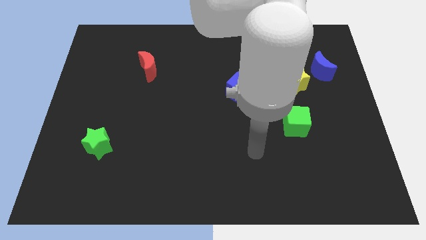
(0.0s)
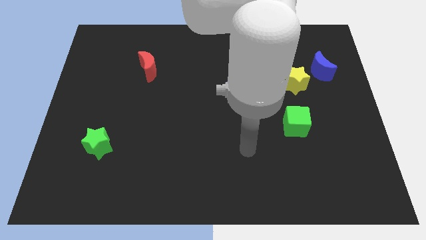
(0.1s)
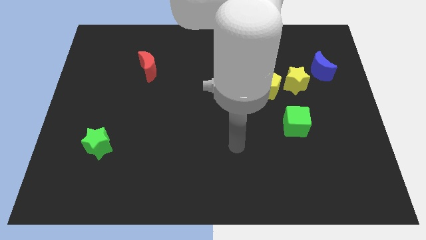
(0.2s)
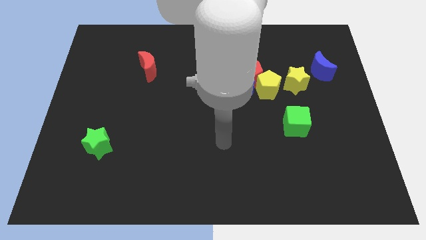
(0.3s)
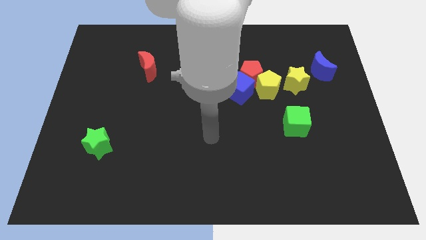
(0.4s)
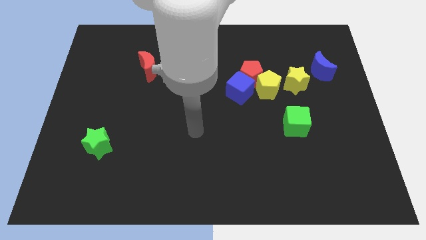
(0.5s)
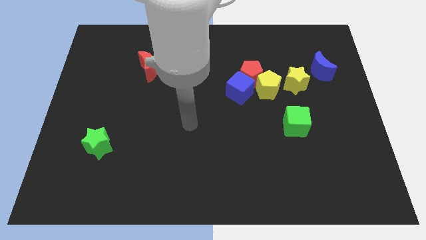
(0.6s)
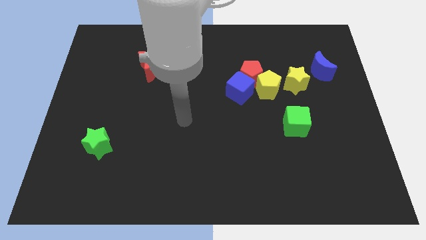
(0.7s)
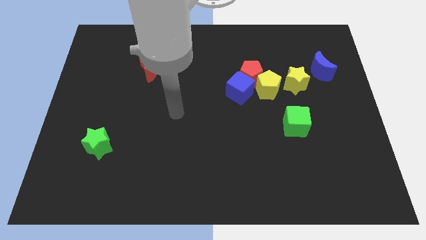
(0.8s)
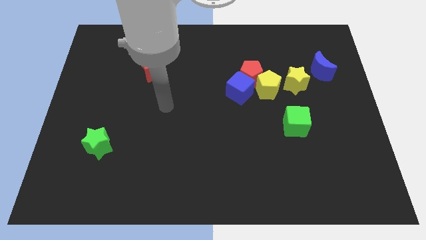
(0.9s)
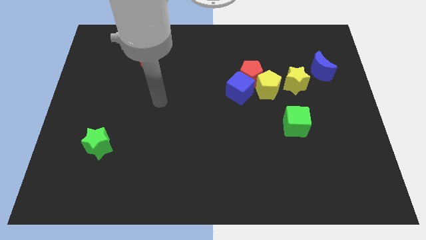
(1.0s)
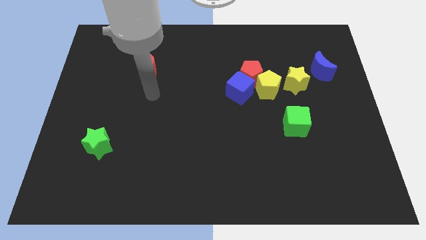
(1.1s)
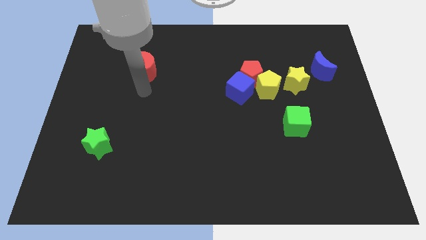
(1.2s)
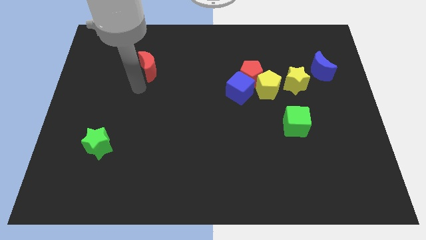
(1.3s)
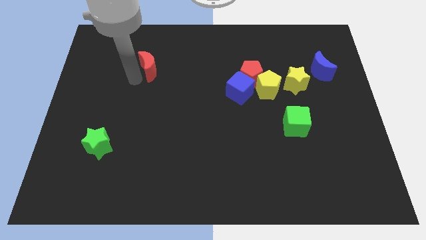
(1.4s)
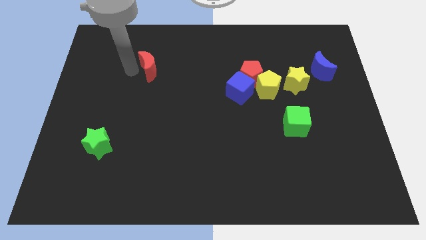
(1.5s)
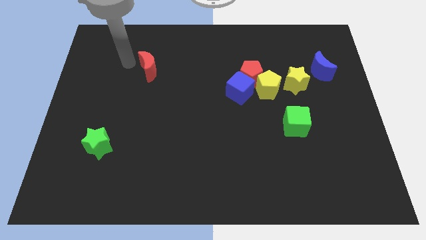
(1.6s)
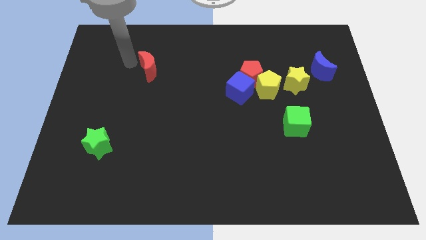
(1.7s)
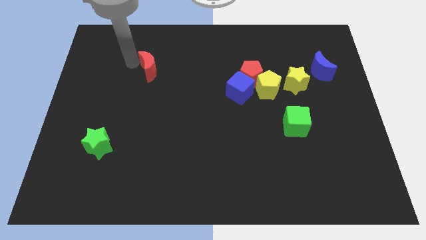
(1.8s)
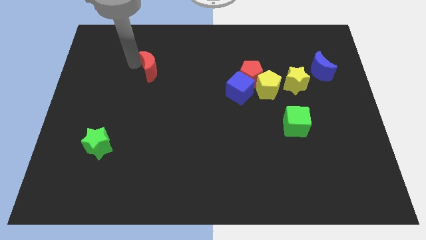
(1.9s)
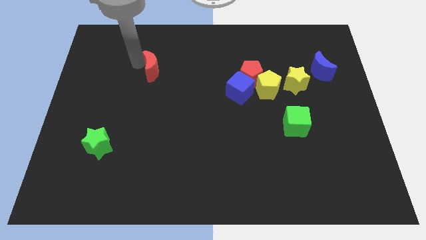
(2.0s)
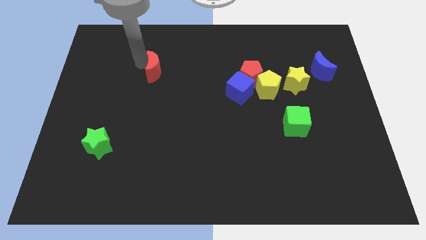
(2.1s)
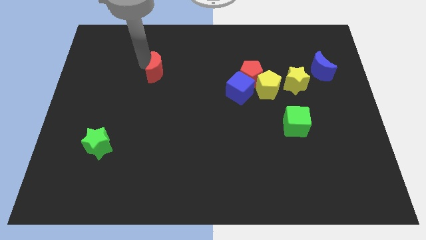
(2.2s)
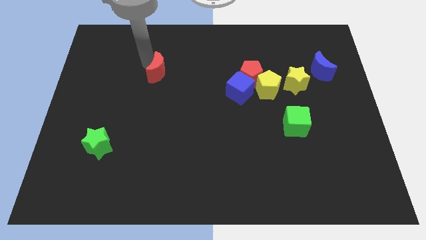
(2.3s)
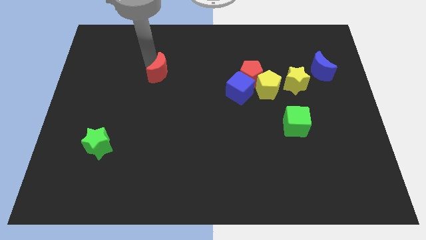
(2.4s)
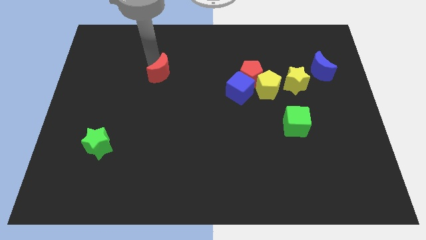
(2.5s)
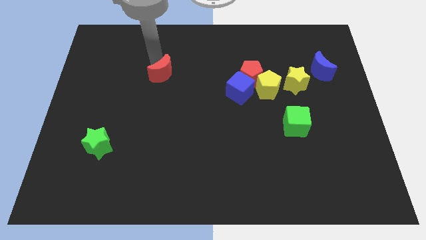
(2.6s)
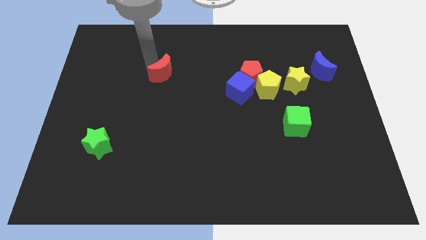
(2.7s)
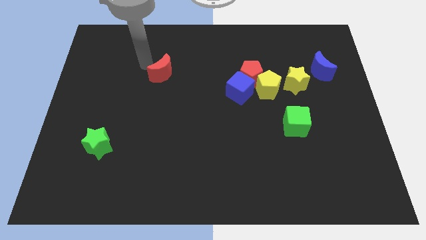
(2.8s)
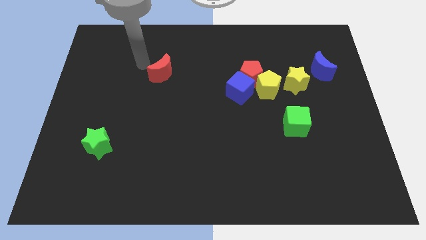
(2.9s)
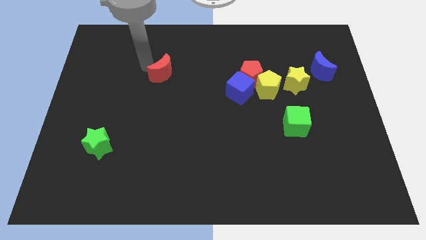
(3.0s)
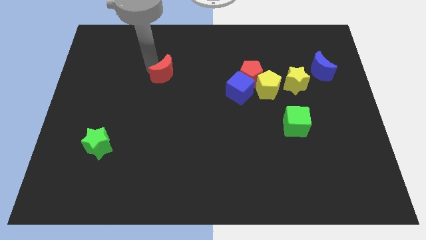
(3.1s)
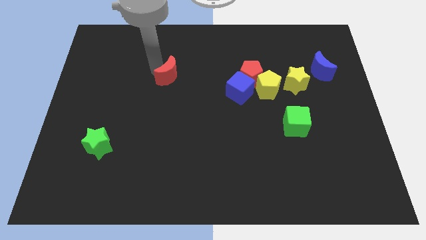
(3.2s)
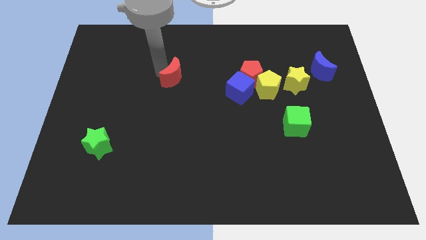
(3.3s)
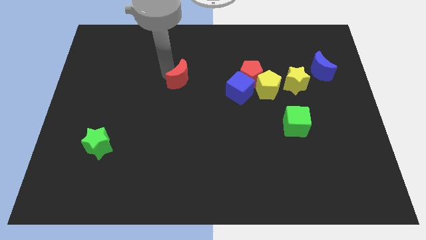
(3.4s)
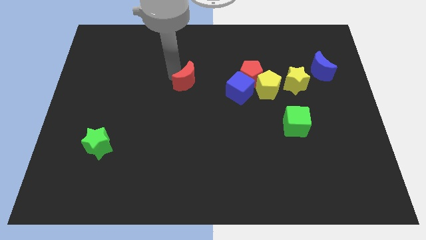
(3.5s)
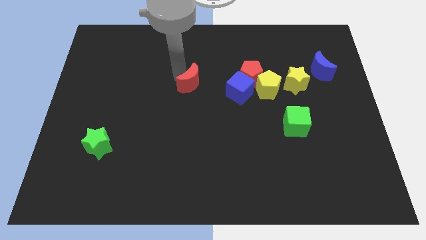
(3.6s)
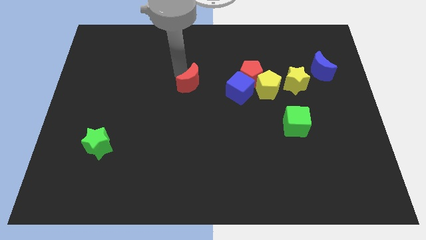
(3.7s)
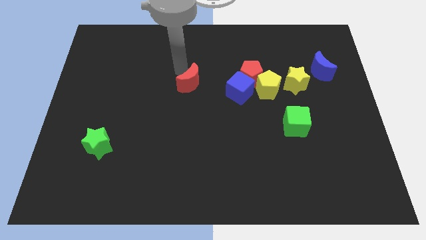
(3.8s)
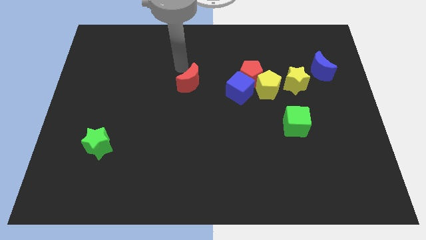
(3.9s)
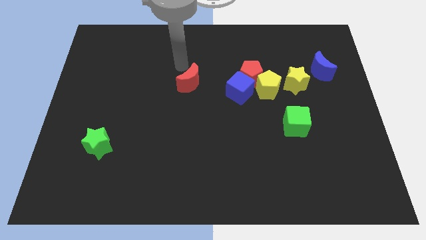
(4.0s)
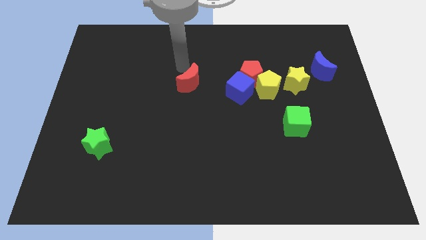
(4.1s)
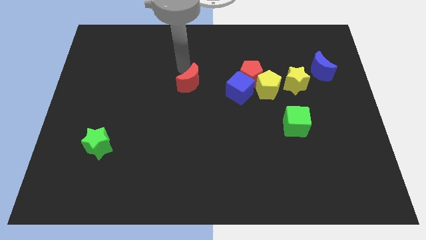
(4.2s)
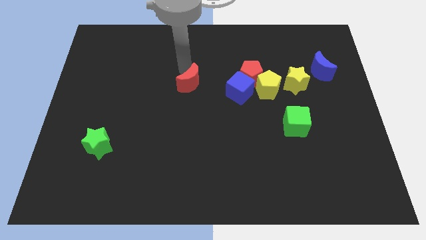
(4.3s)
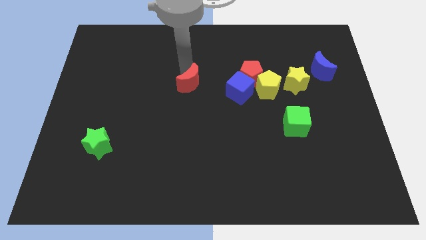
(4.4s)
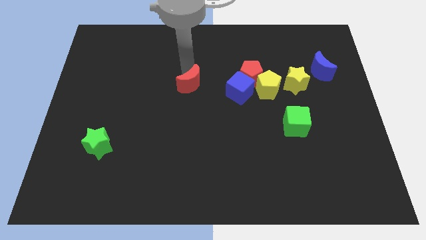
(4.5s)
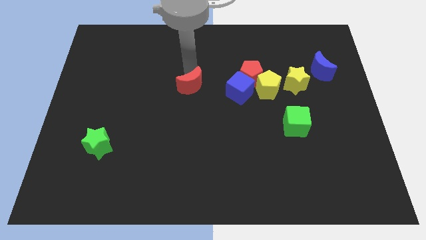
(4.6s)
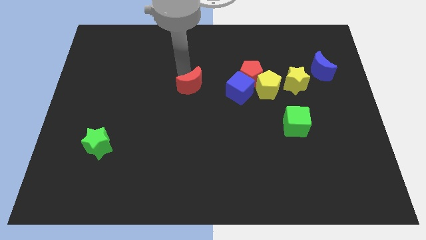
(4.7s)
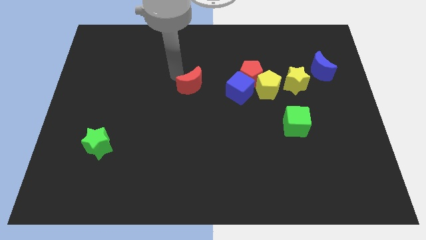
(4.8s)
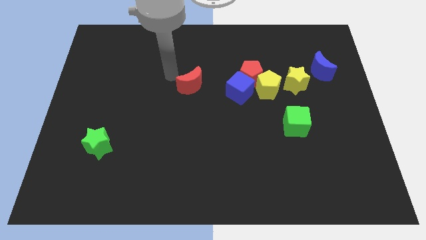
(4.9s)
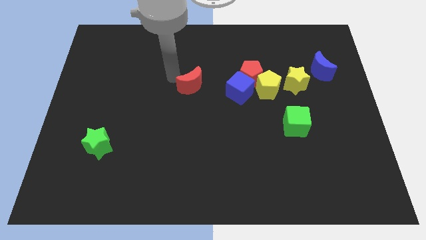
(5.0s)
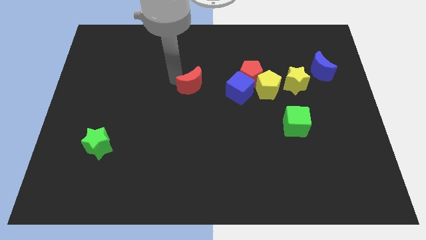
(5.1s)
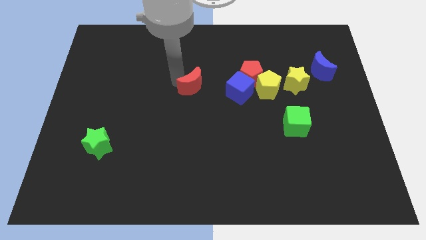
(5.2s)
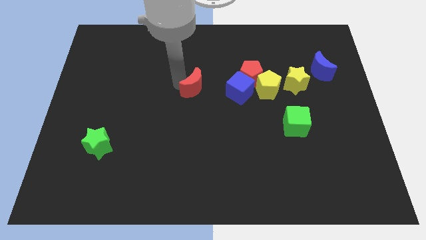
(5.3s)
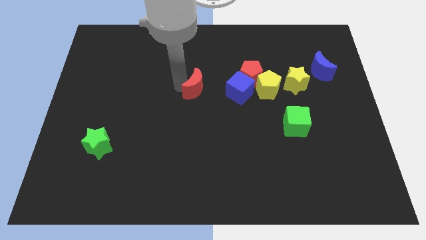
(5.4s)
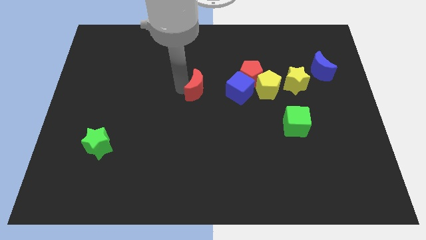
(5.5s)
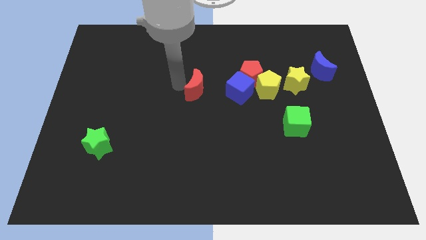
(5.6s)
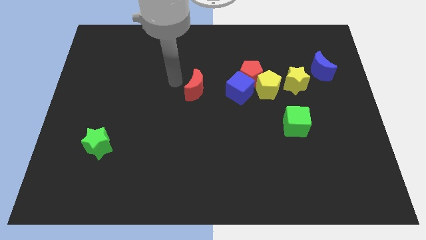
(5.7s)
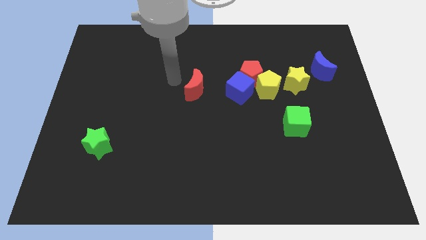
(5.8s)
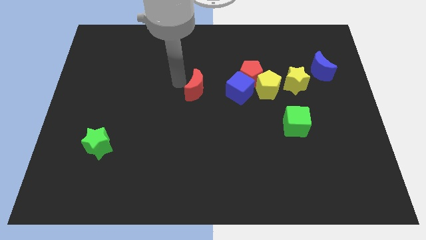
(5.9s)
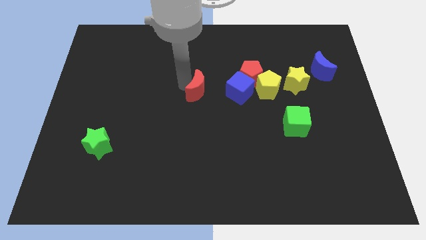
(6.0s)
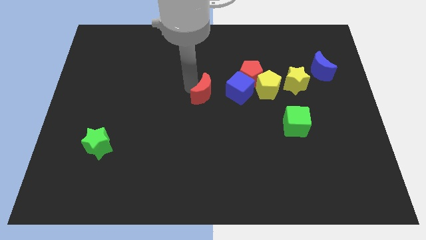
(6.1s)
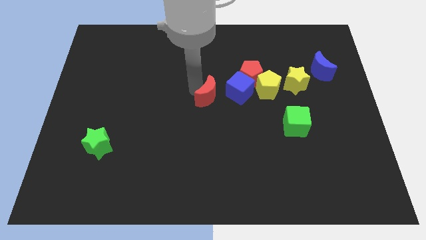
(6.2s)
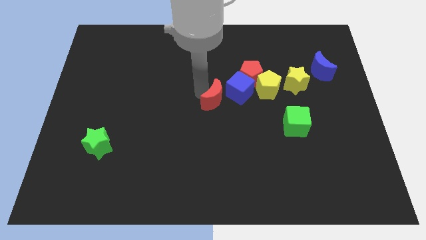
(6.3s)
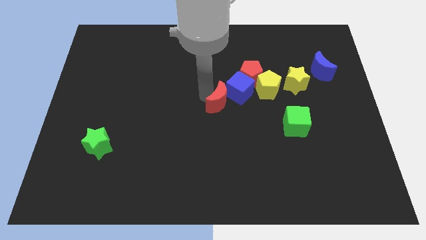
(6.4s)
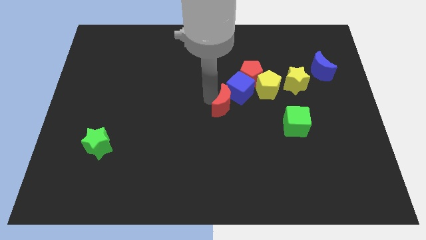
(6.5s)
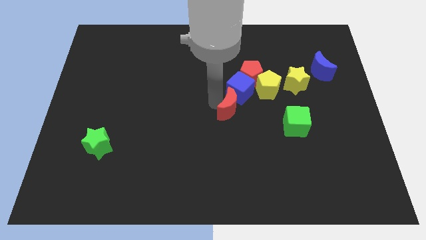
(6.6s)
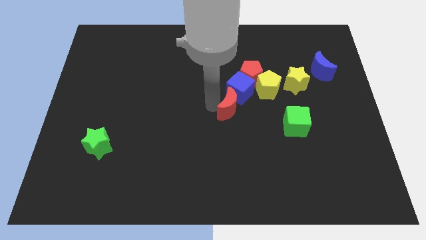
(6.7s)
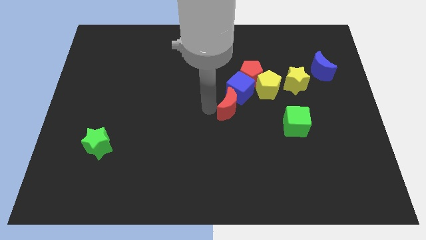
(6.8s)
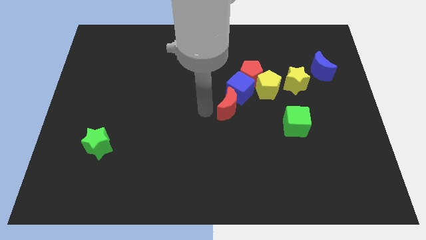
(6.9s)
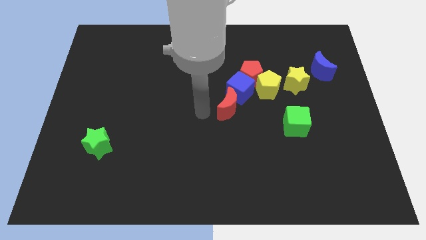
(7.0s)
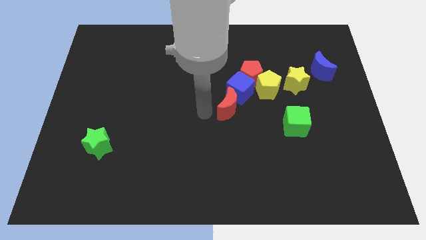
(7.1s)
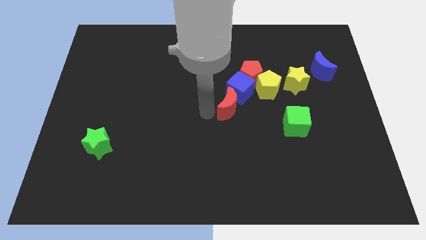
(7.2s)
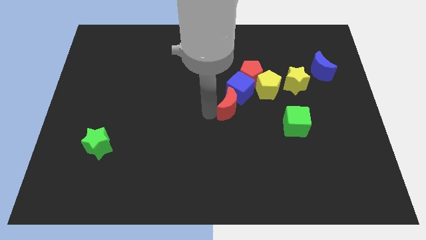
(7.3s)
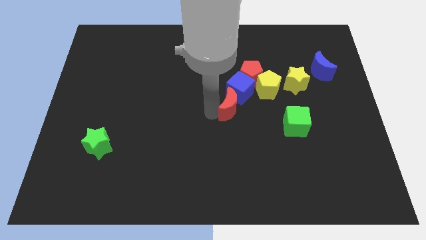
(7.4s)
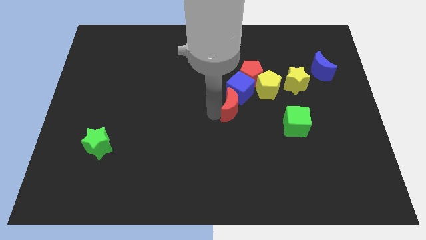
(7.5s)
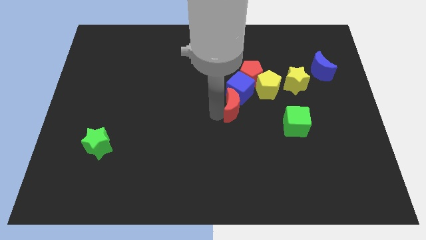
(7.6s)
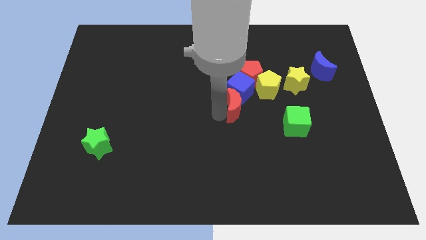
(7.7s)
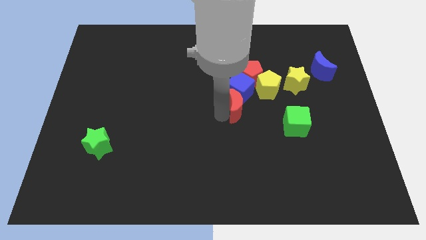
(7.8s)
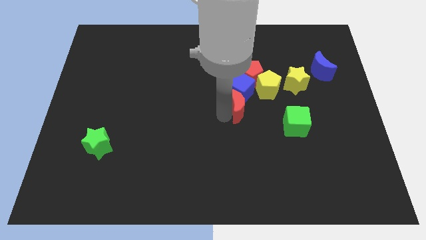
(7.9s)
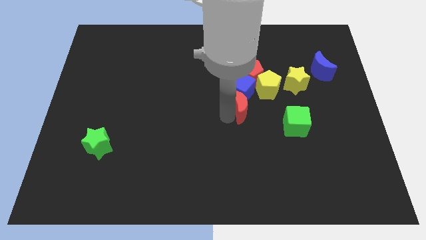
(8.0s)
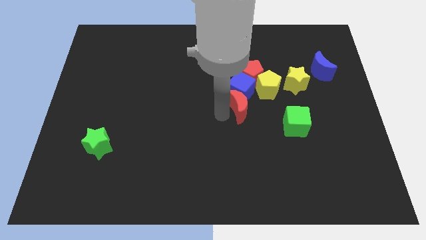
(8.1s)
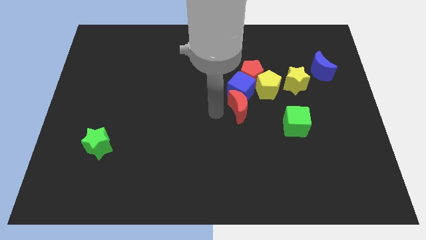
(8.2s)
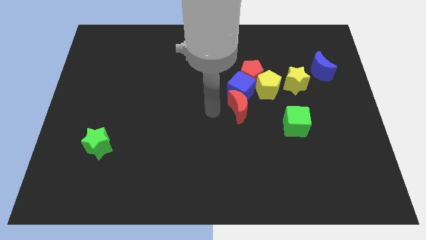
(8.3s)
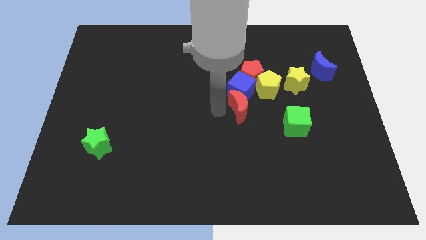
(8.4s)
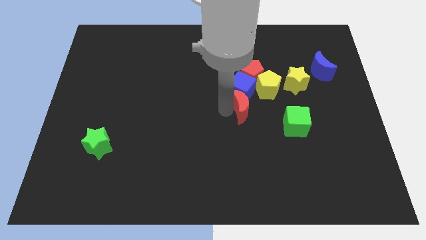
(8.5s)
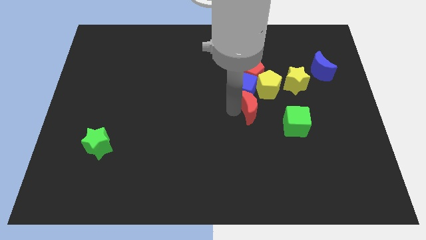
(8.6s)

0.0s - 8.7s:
slide the red moon to the top left of the green cube
